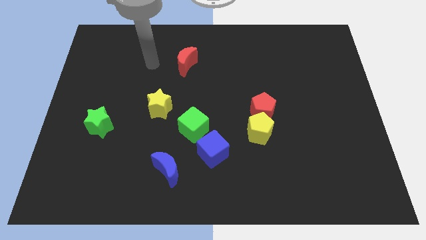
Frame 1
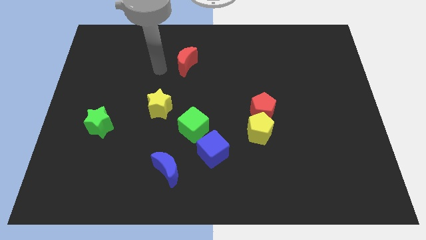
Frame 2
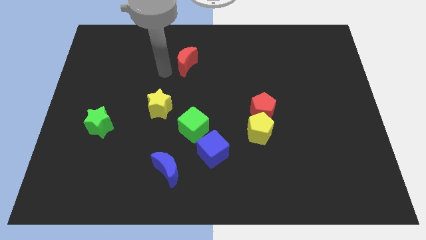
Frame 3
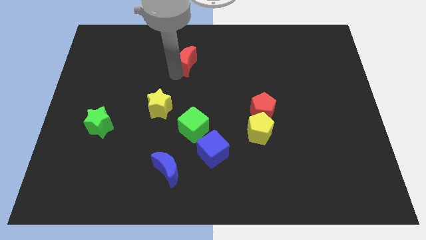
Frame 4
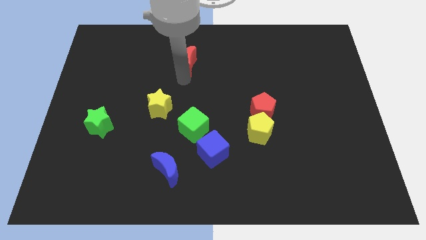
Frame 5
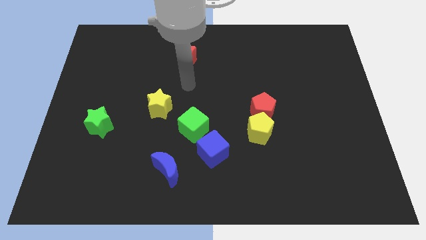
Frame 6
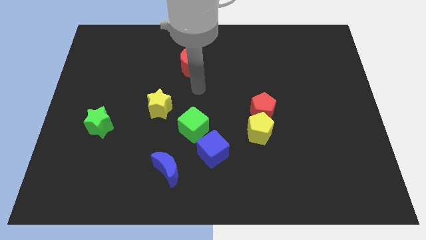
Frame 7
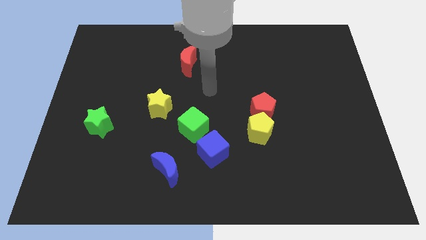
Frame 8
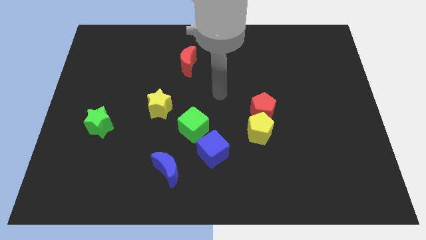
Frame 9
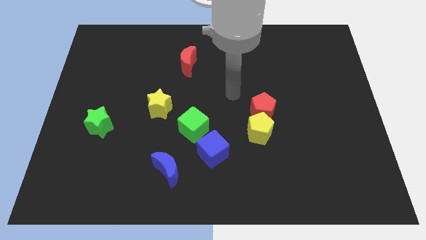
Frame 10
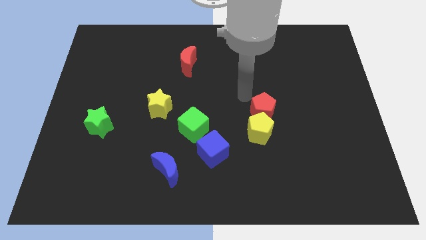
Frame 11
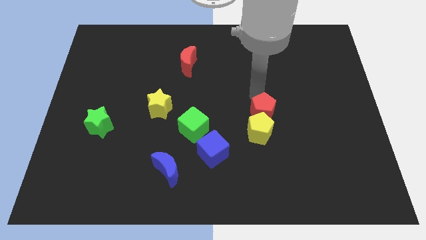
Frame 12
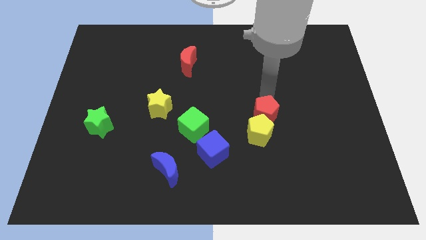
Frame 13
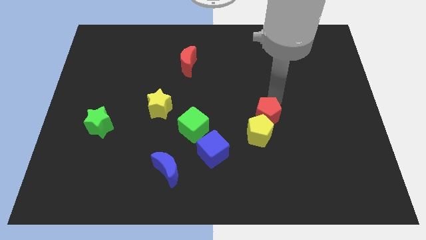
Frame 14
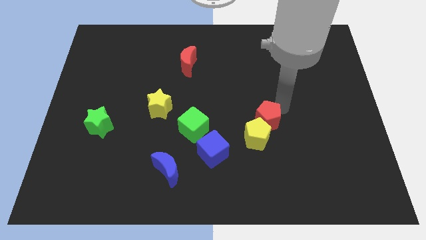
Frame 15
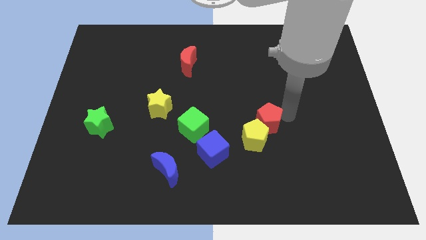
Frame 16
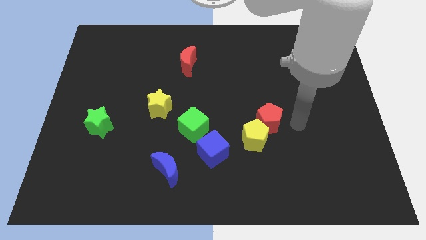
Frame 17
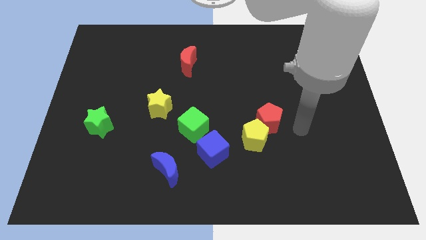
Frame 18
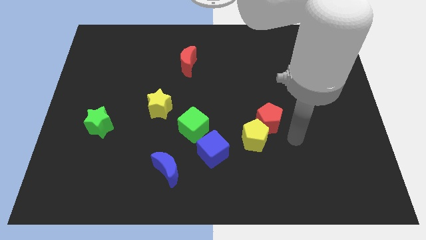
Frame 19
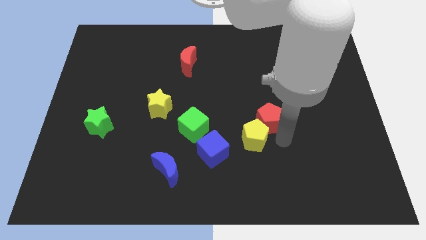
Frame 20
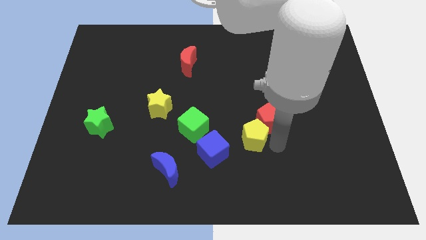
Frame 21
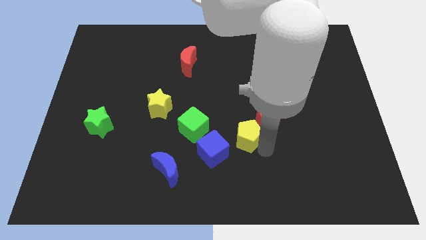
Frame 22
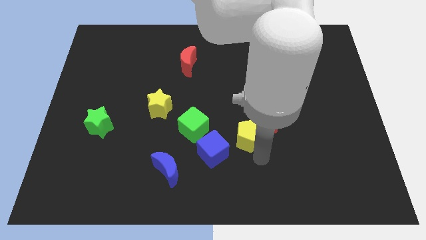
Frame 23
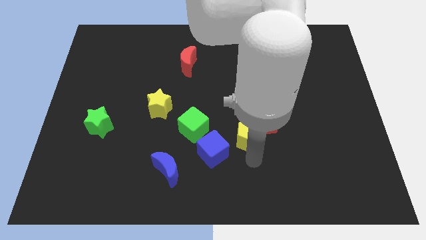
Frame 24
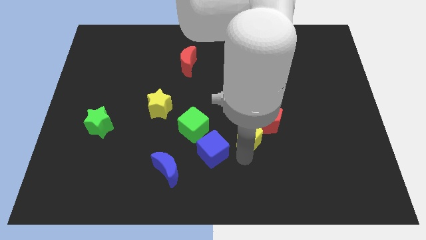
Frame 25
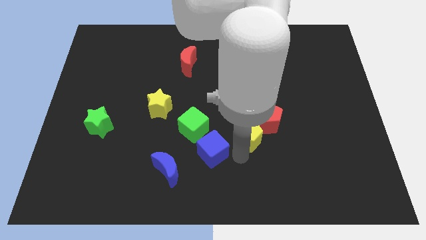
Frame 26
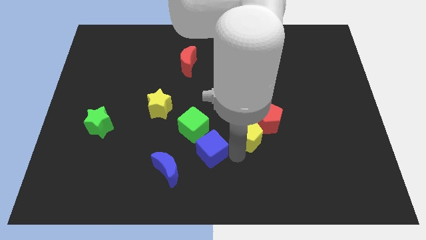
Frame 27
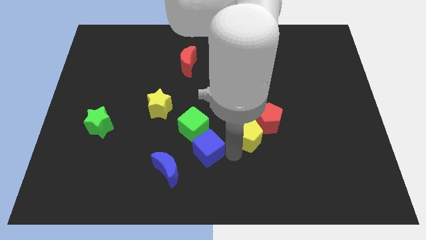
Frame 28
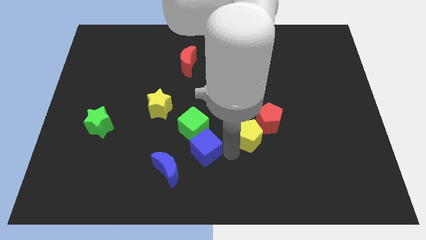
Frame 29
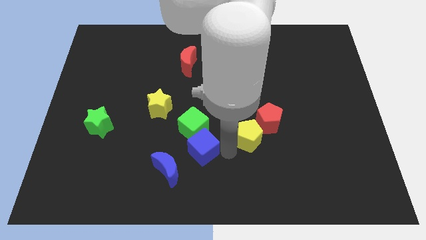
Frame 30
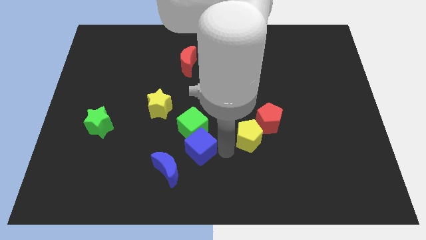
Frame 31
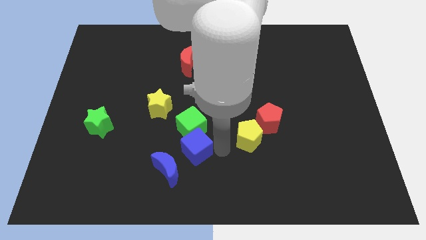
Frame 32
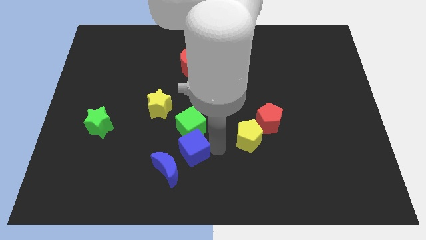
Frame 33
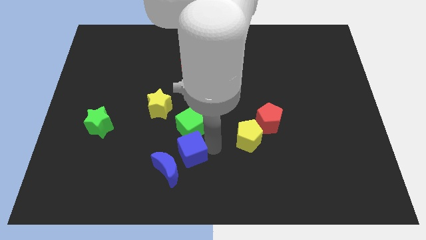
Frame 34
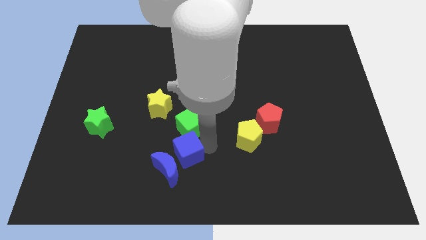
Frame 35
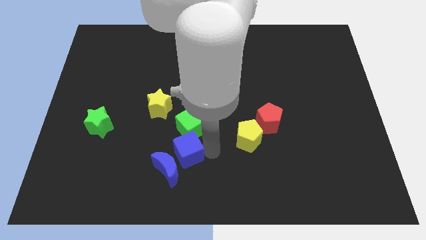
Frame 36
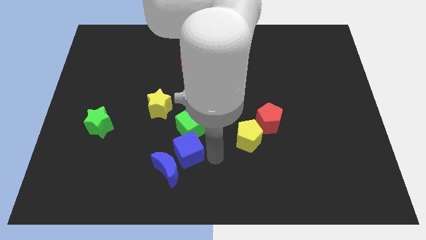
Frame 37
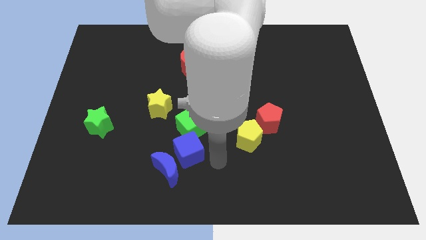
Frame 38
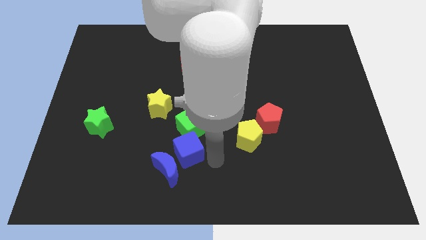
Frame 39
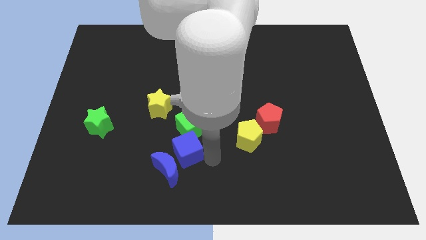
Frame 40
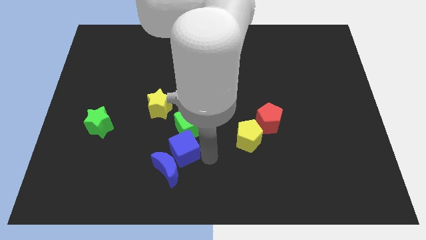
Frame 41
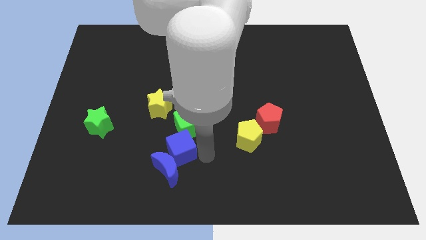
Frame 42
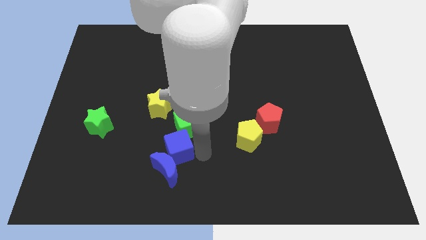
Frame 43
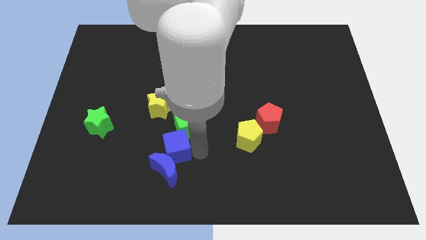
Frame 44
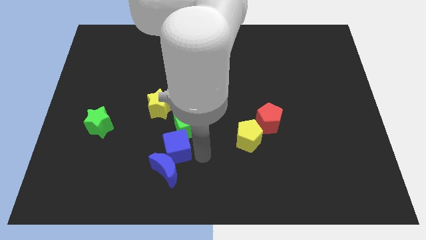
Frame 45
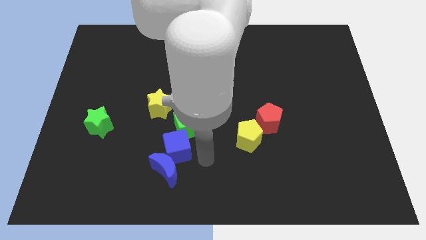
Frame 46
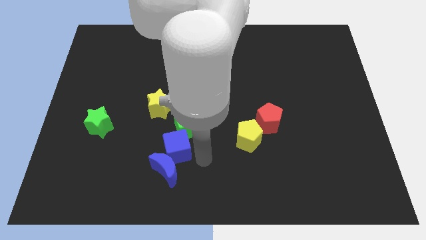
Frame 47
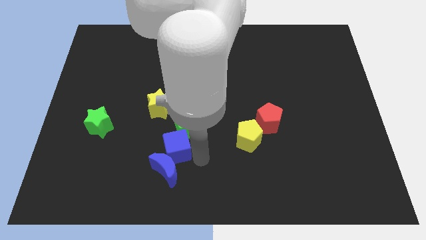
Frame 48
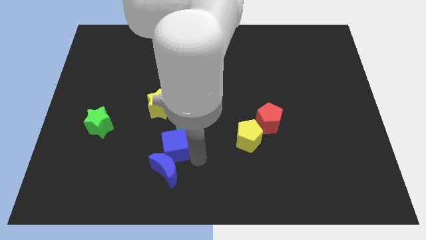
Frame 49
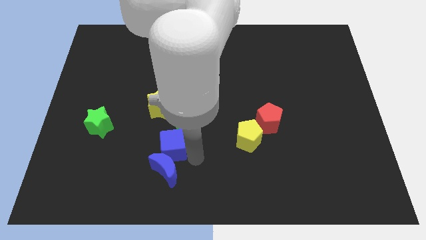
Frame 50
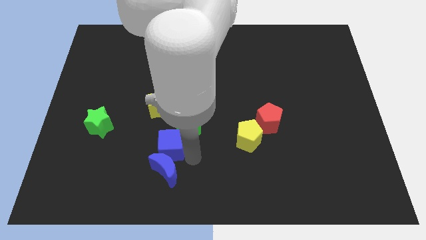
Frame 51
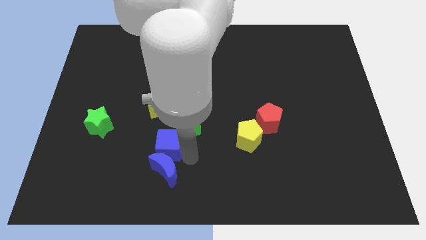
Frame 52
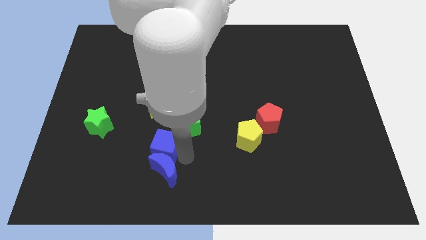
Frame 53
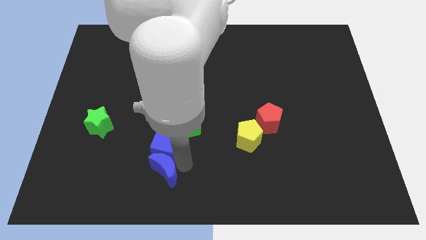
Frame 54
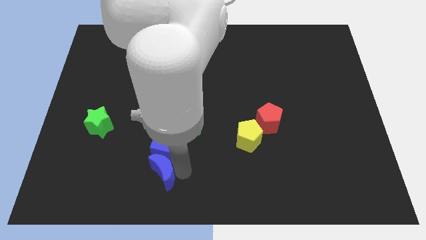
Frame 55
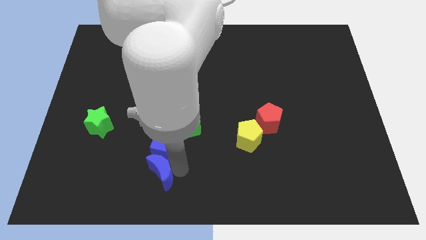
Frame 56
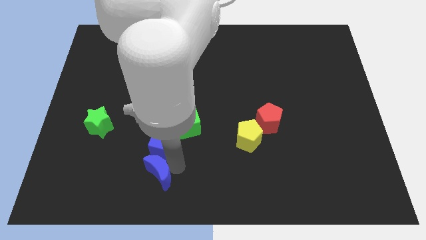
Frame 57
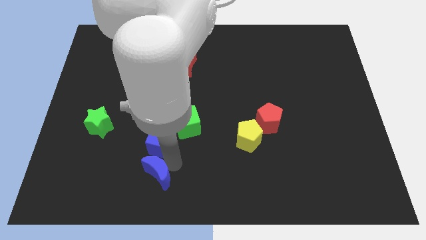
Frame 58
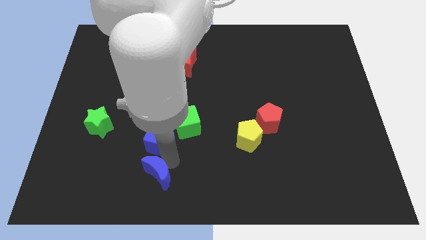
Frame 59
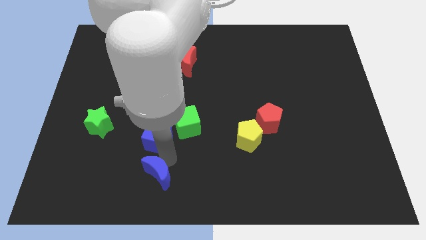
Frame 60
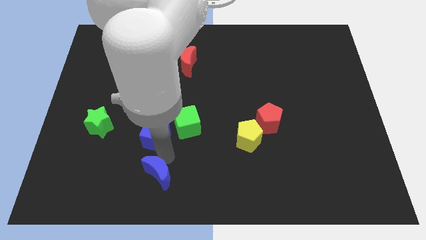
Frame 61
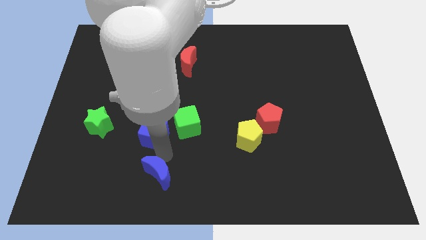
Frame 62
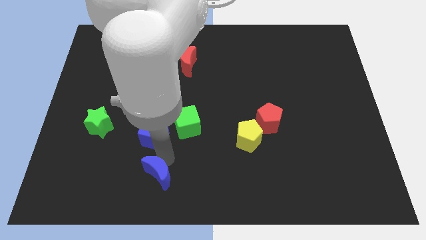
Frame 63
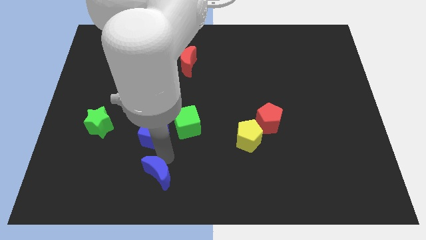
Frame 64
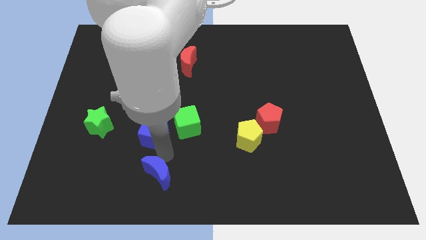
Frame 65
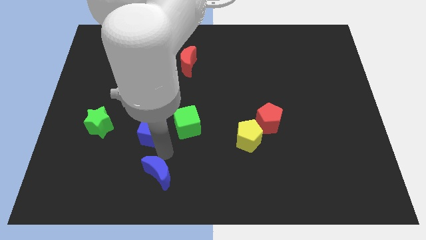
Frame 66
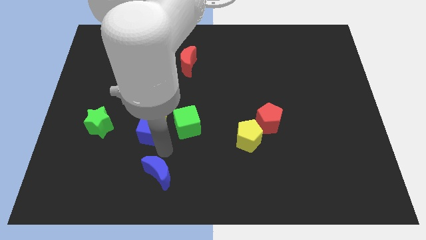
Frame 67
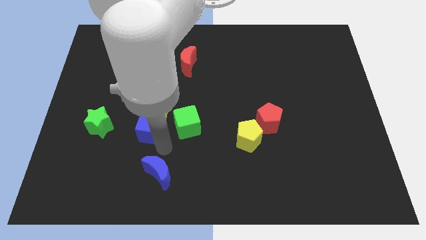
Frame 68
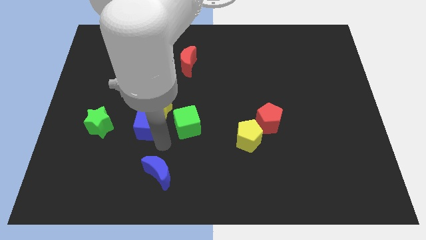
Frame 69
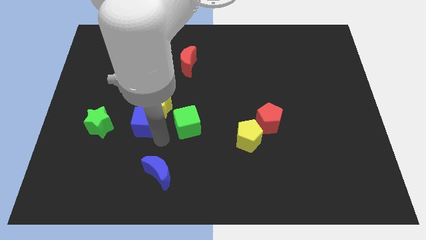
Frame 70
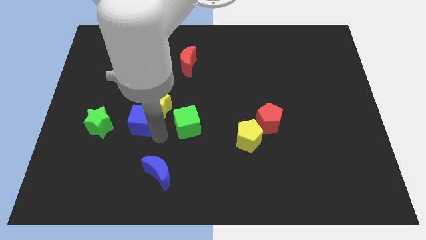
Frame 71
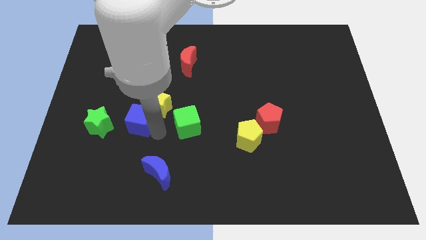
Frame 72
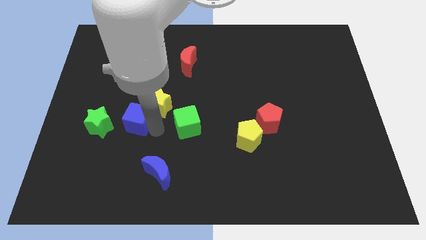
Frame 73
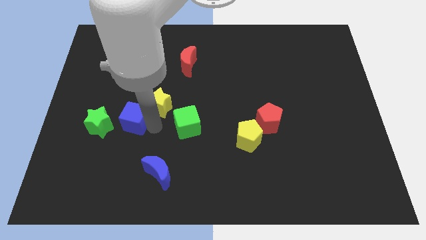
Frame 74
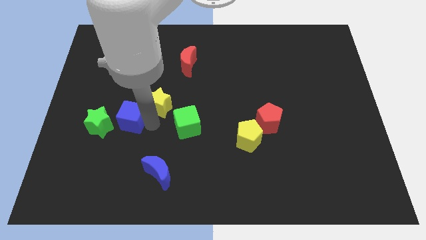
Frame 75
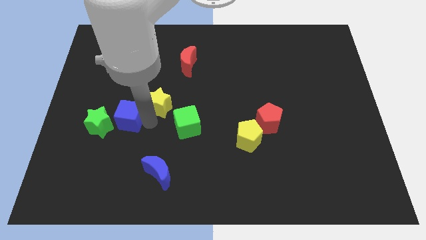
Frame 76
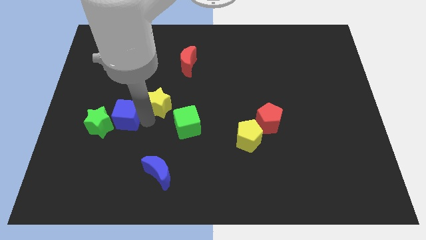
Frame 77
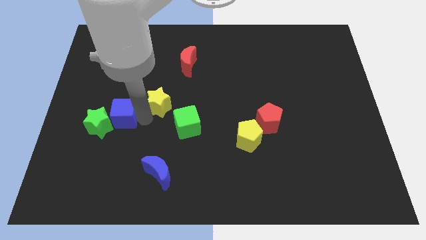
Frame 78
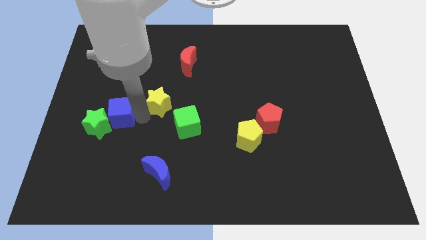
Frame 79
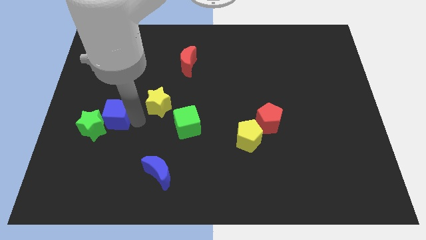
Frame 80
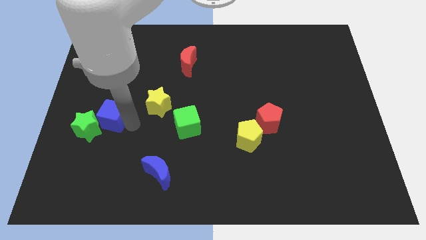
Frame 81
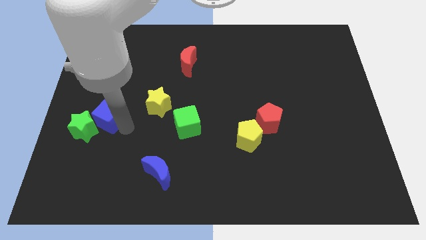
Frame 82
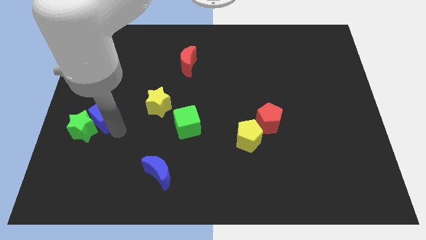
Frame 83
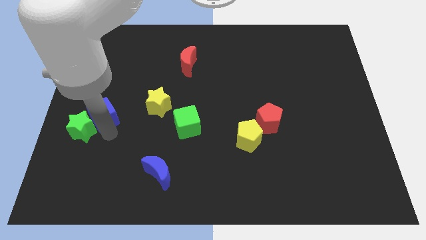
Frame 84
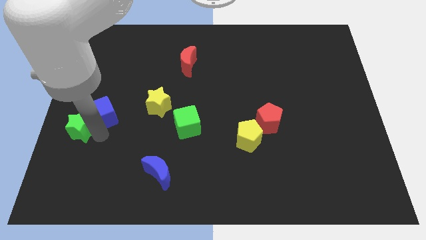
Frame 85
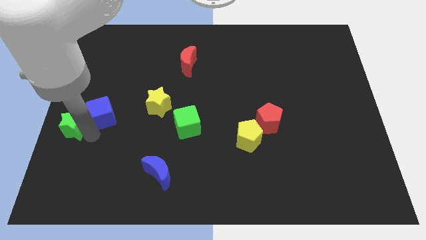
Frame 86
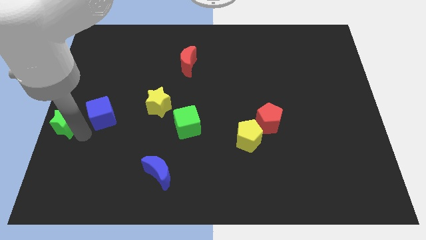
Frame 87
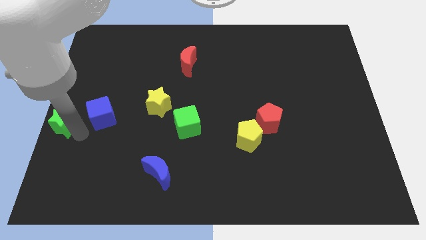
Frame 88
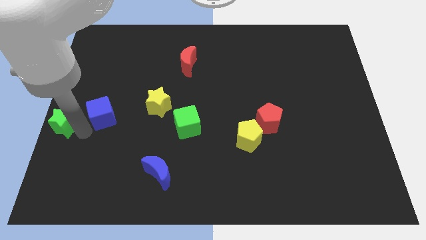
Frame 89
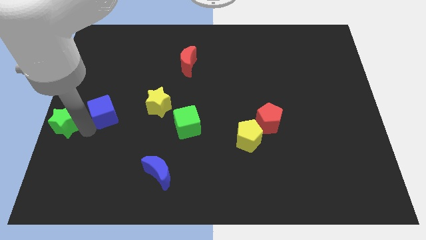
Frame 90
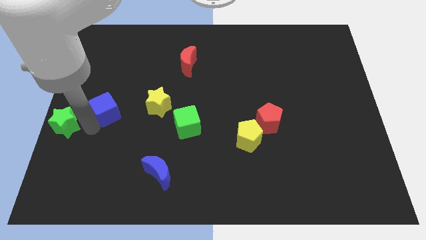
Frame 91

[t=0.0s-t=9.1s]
slide the blue cube diagonally upwards and to the left
